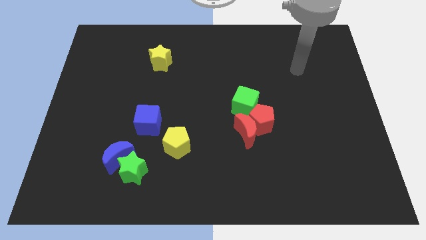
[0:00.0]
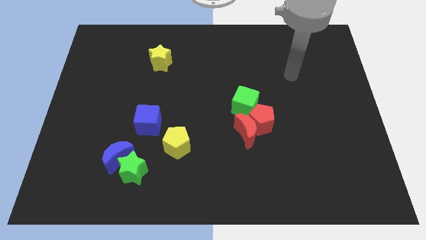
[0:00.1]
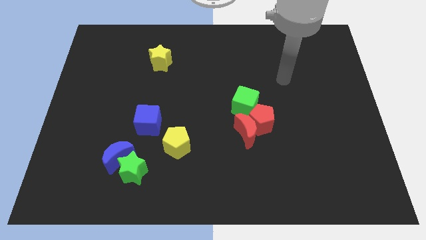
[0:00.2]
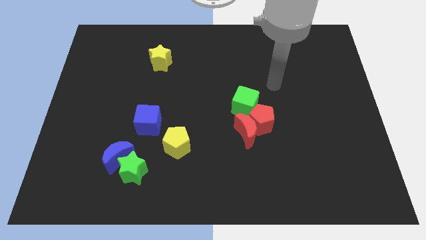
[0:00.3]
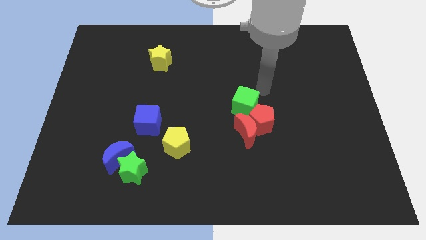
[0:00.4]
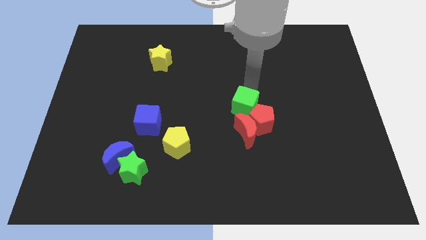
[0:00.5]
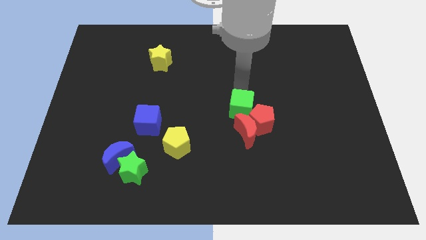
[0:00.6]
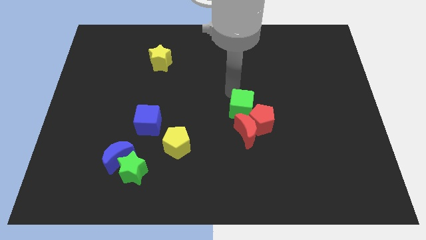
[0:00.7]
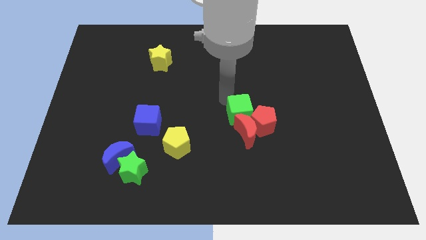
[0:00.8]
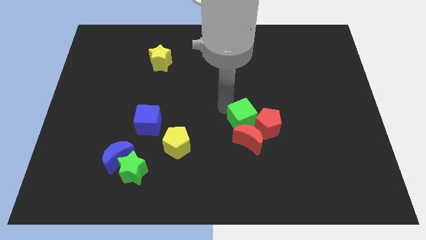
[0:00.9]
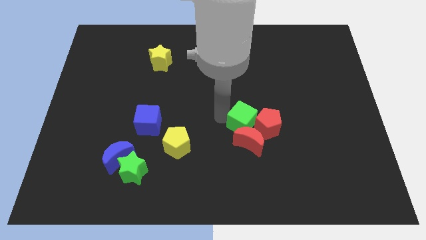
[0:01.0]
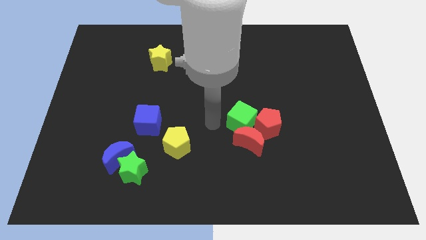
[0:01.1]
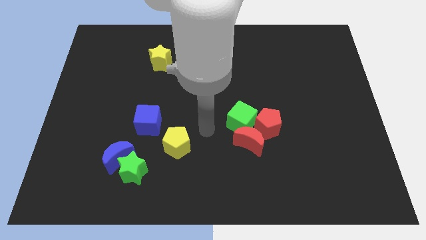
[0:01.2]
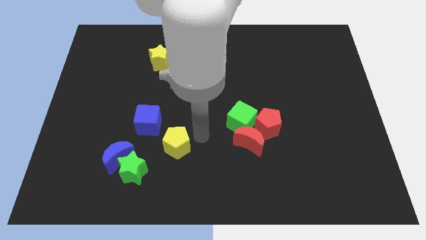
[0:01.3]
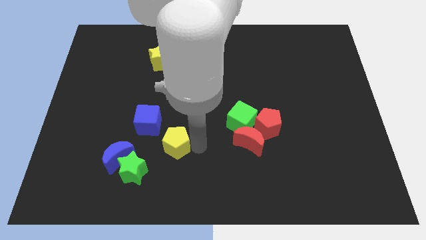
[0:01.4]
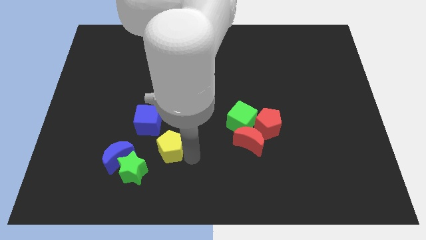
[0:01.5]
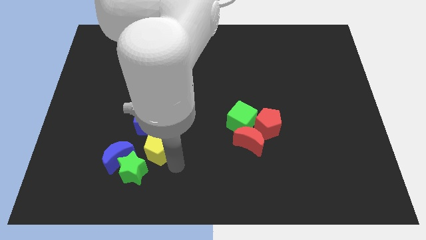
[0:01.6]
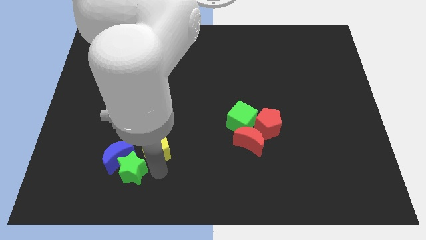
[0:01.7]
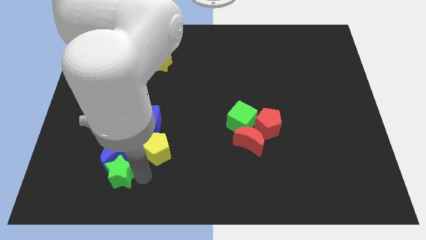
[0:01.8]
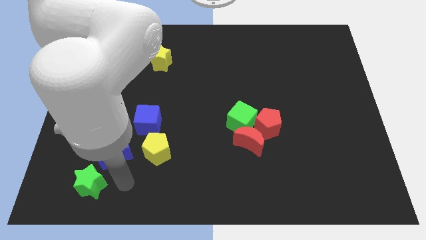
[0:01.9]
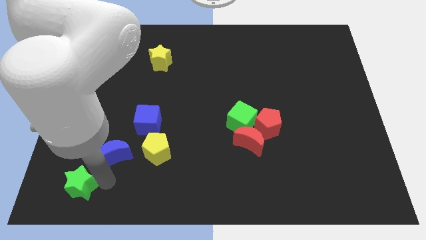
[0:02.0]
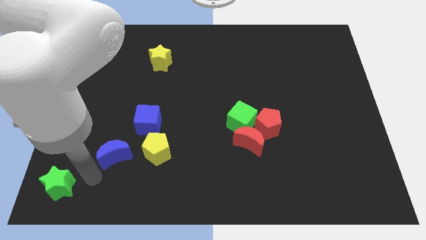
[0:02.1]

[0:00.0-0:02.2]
move the blue moon away from the green star

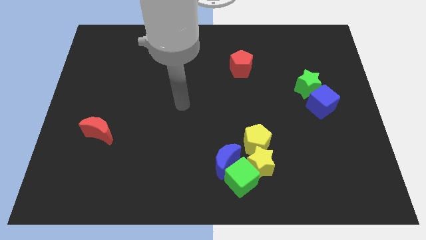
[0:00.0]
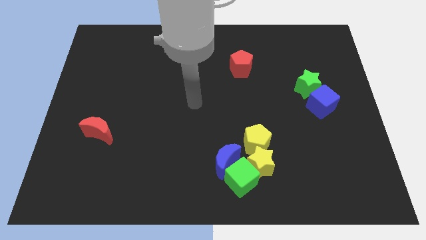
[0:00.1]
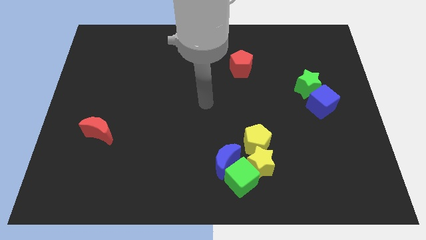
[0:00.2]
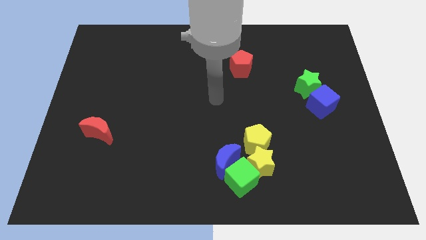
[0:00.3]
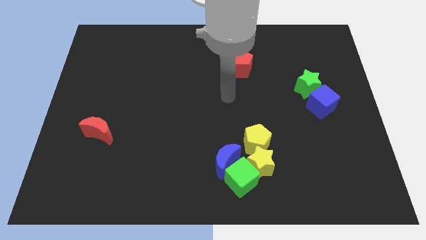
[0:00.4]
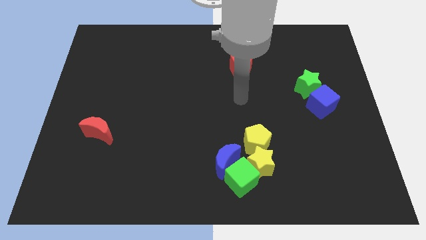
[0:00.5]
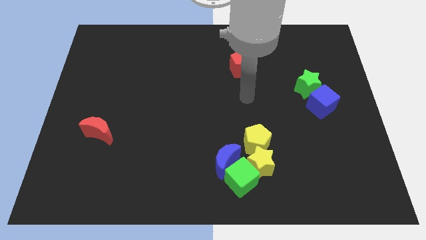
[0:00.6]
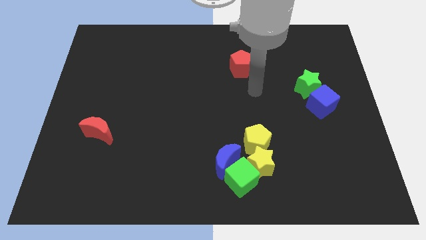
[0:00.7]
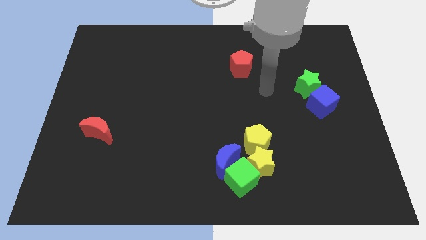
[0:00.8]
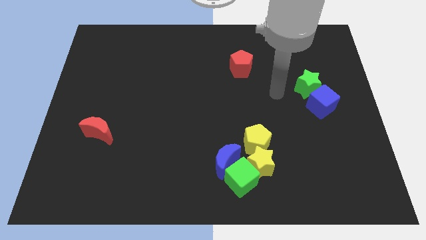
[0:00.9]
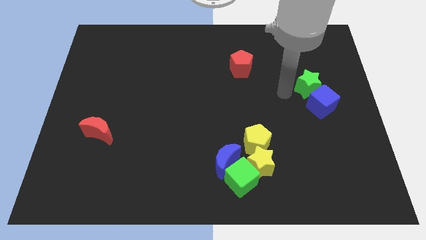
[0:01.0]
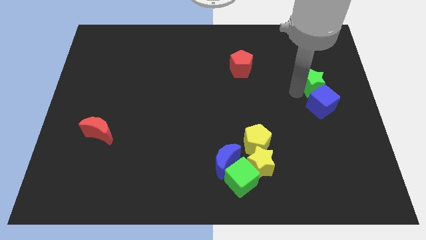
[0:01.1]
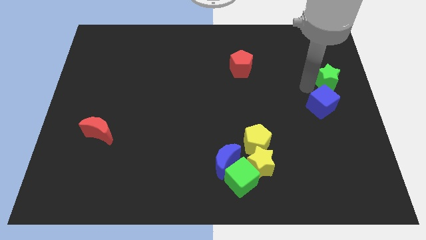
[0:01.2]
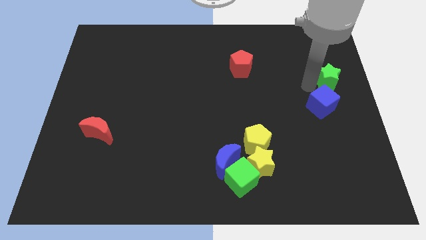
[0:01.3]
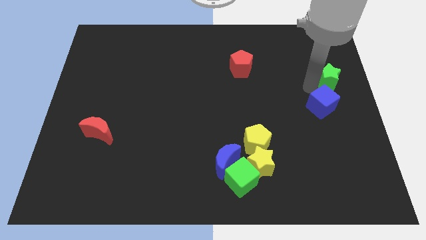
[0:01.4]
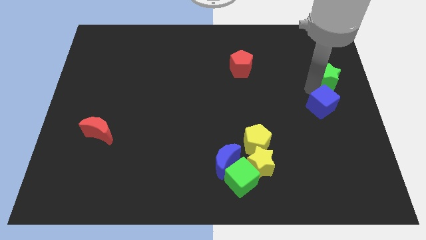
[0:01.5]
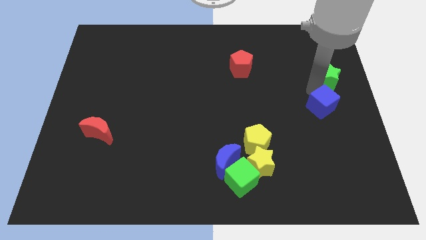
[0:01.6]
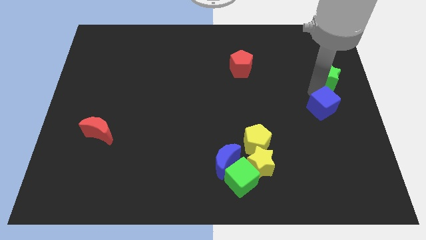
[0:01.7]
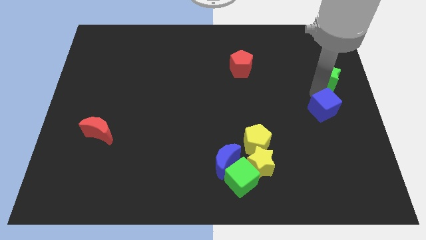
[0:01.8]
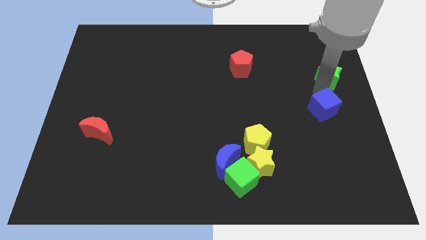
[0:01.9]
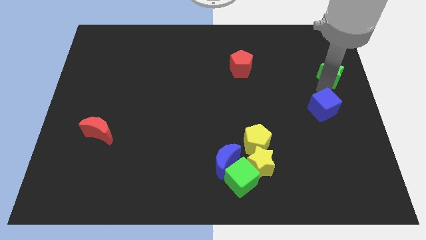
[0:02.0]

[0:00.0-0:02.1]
move the blue cube away from the green star

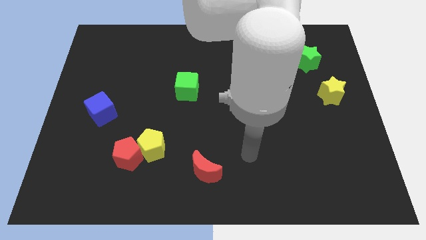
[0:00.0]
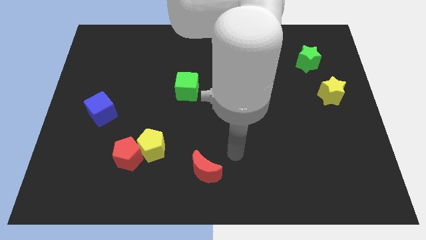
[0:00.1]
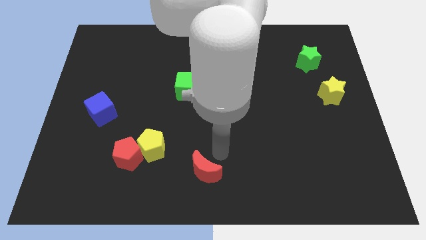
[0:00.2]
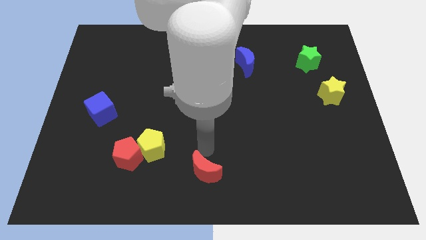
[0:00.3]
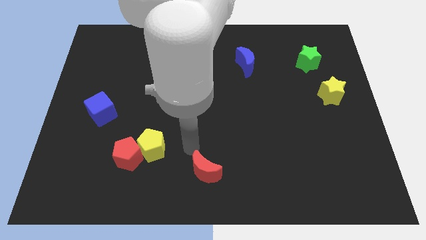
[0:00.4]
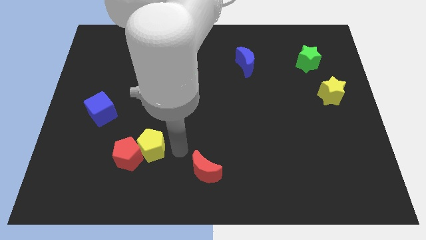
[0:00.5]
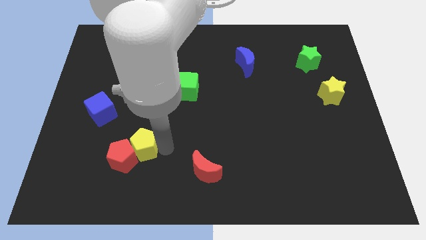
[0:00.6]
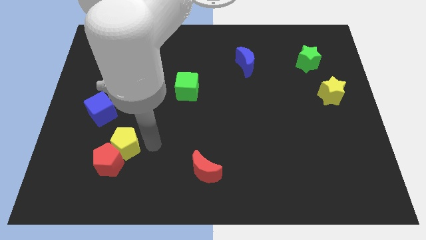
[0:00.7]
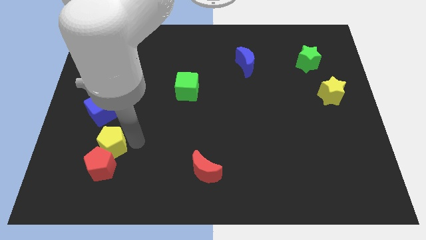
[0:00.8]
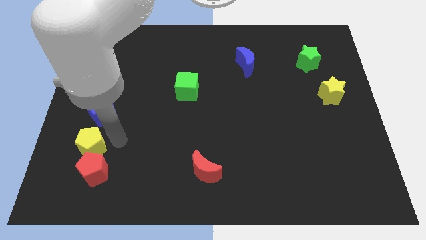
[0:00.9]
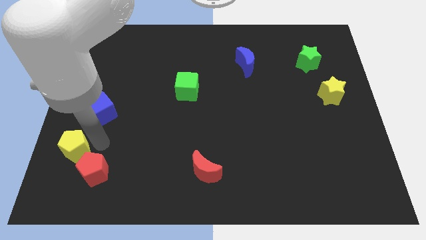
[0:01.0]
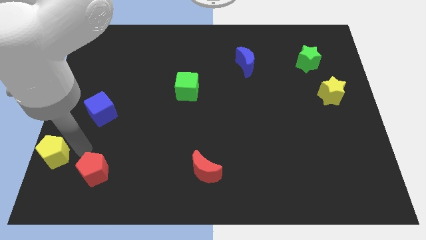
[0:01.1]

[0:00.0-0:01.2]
separate the red pentagon from the yellow pentagon

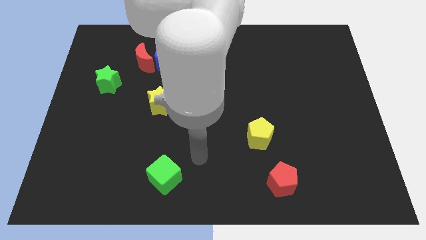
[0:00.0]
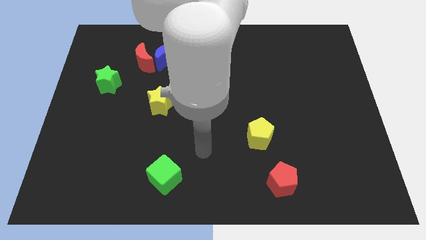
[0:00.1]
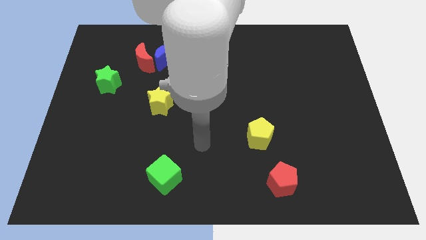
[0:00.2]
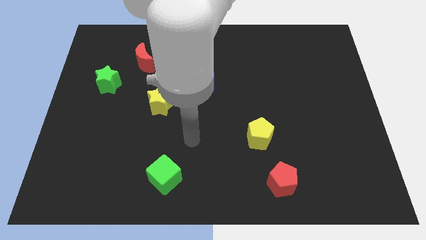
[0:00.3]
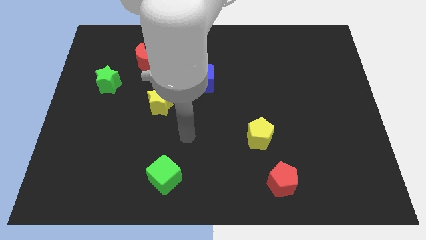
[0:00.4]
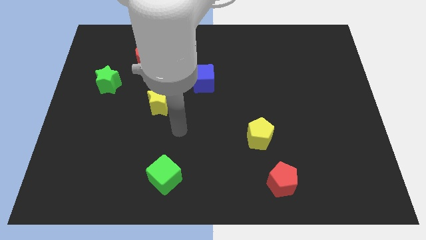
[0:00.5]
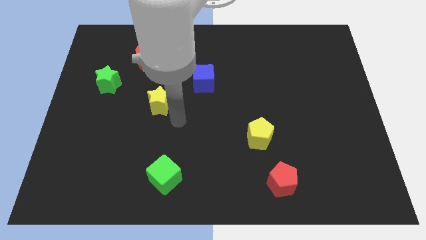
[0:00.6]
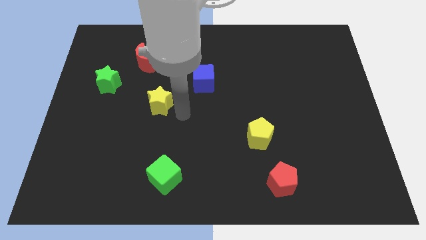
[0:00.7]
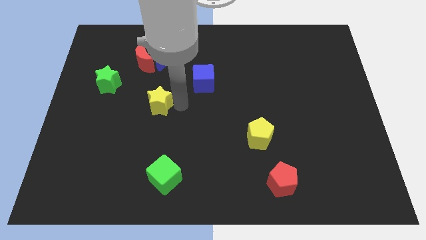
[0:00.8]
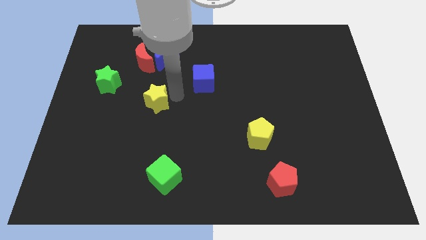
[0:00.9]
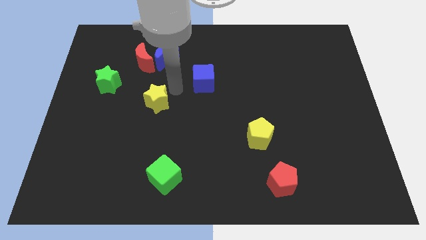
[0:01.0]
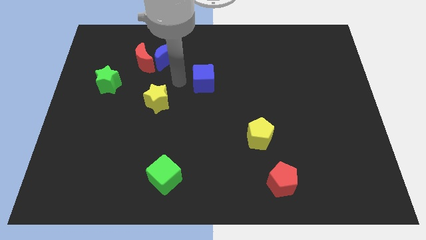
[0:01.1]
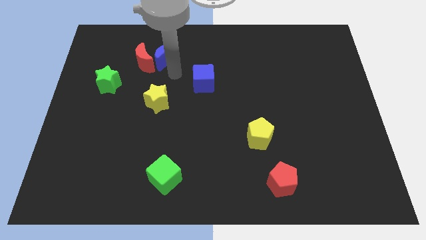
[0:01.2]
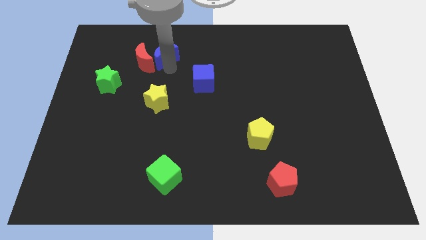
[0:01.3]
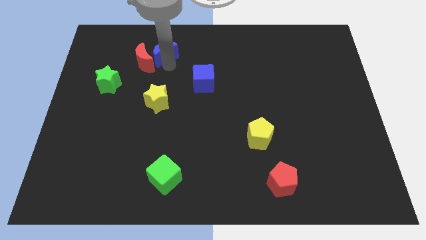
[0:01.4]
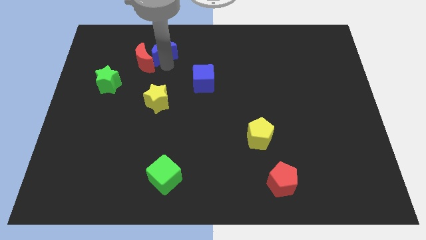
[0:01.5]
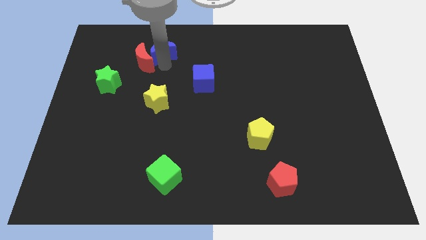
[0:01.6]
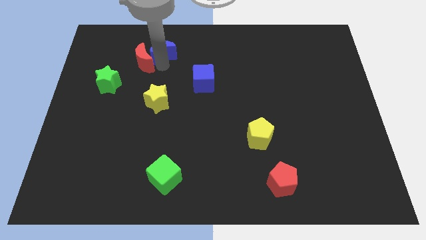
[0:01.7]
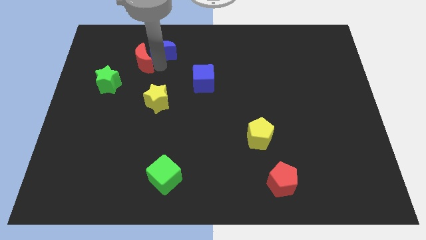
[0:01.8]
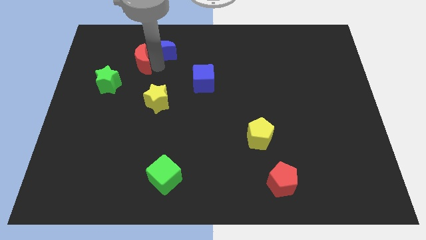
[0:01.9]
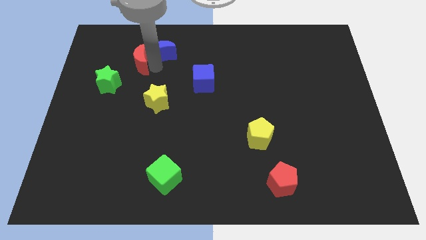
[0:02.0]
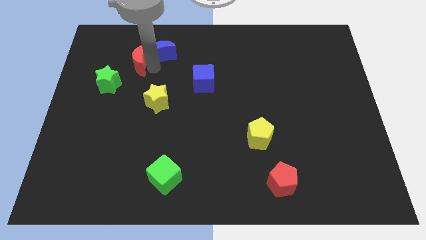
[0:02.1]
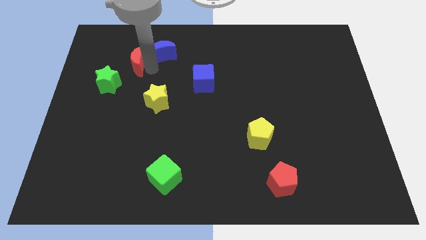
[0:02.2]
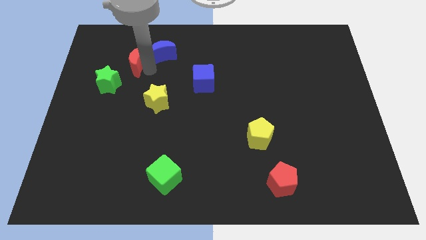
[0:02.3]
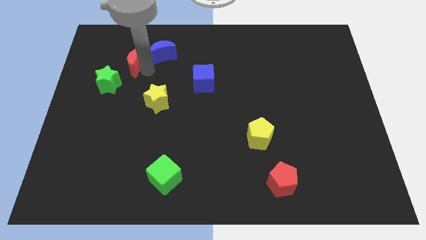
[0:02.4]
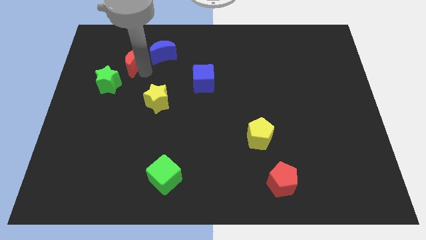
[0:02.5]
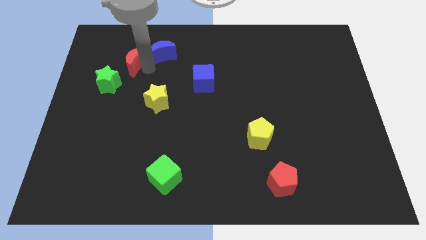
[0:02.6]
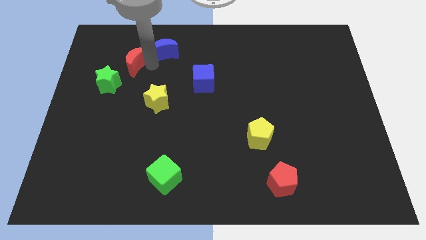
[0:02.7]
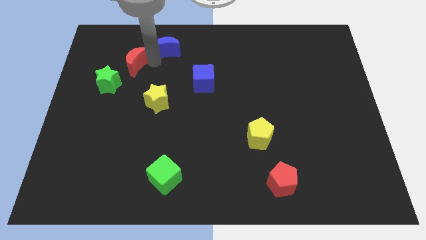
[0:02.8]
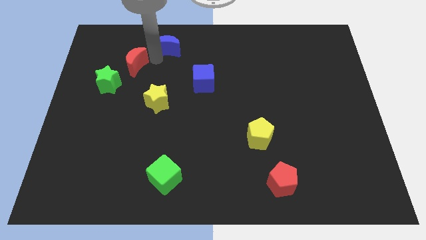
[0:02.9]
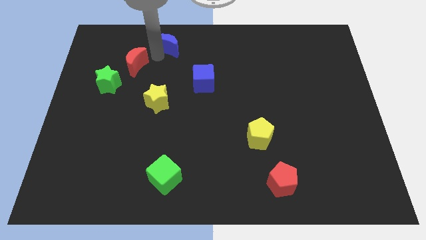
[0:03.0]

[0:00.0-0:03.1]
move the red moon away from the blue moon

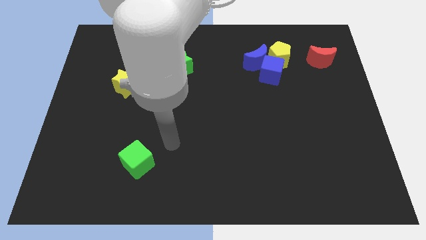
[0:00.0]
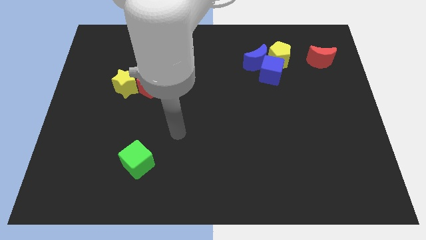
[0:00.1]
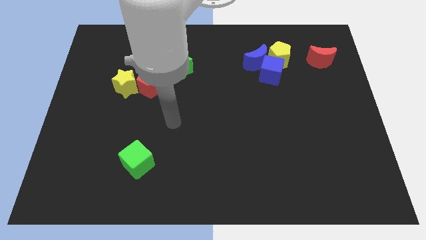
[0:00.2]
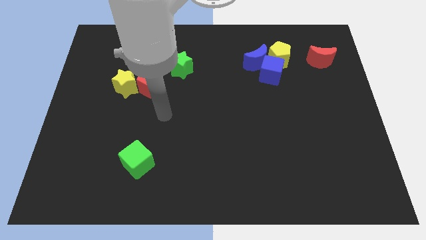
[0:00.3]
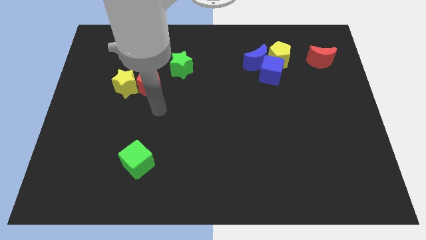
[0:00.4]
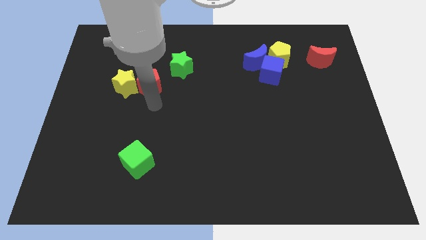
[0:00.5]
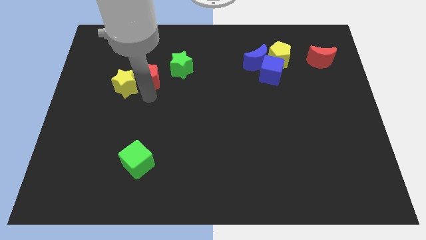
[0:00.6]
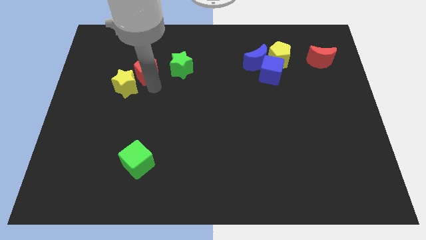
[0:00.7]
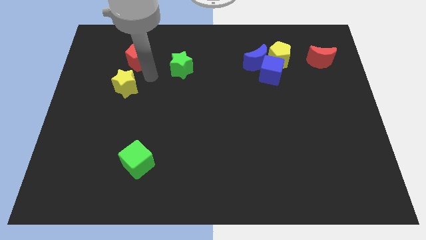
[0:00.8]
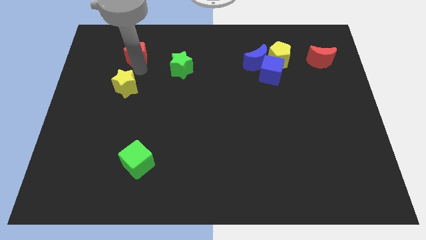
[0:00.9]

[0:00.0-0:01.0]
separate the yellow star from the red pentagon
